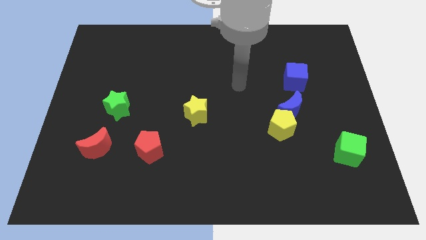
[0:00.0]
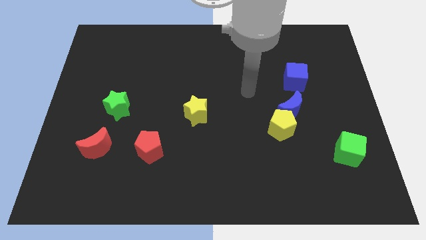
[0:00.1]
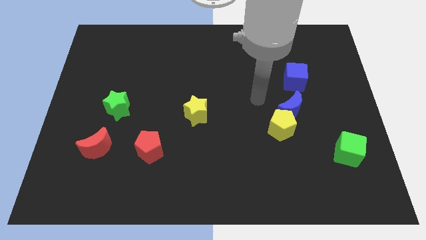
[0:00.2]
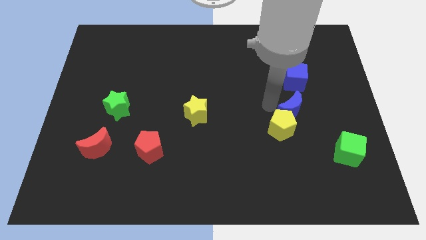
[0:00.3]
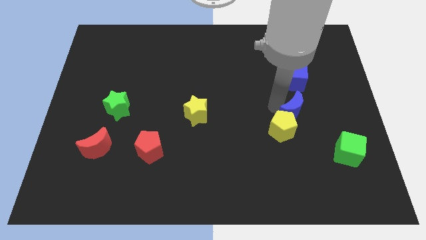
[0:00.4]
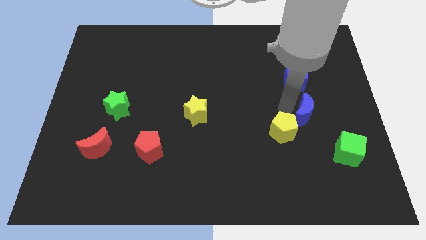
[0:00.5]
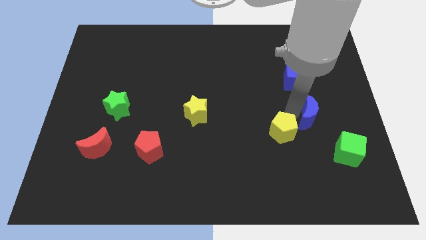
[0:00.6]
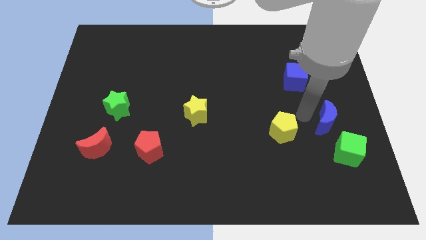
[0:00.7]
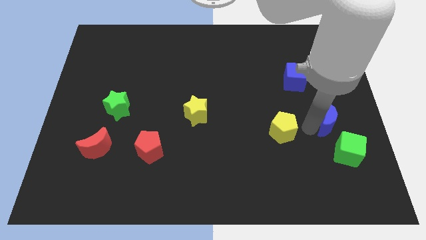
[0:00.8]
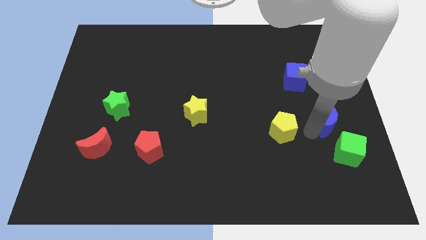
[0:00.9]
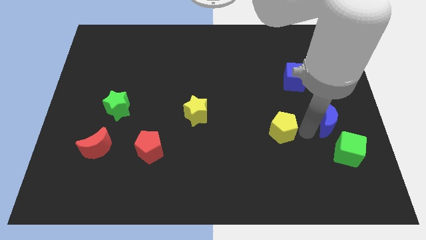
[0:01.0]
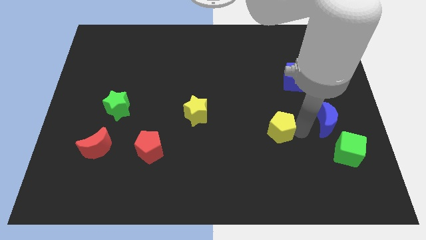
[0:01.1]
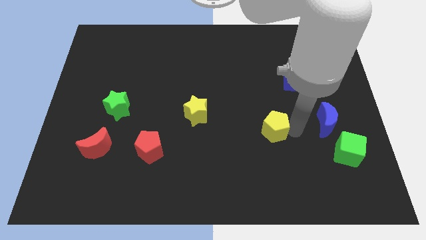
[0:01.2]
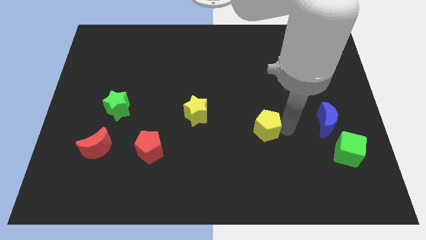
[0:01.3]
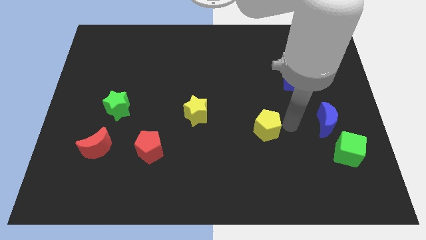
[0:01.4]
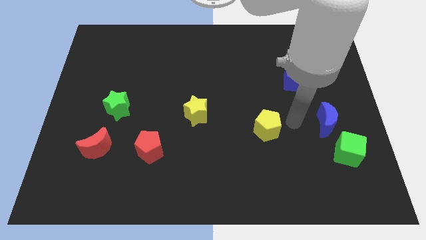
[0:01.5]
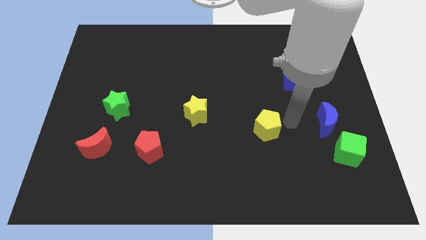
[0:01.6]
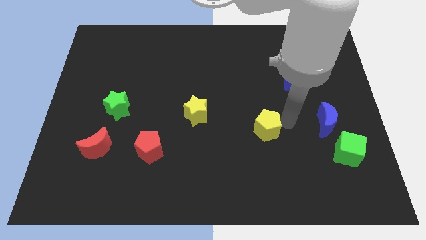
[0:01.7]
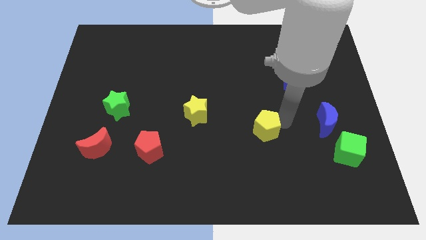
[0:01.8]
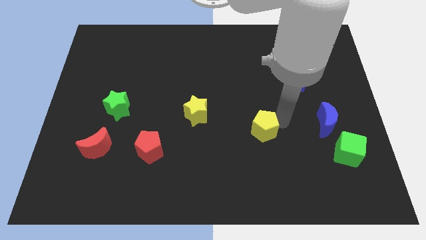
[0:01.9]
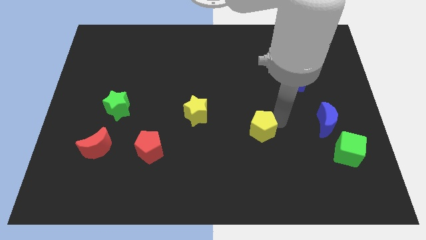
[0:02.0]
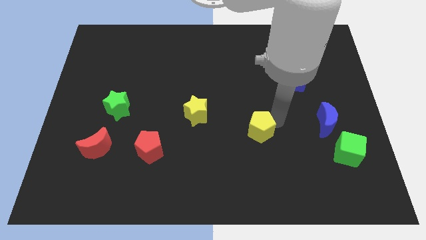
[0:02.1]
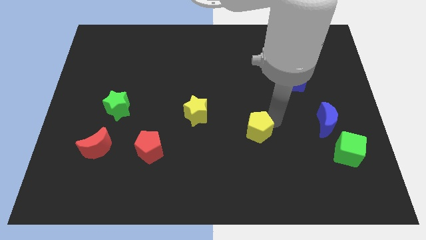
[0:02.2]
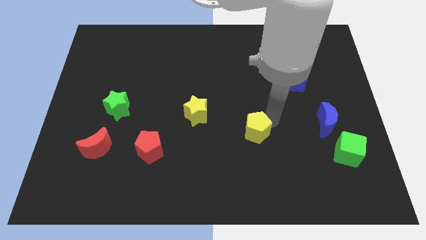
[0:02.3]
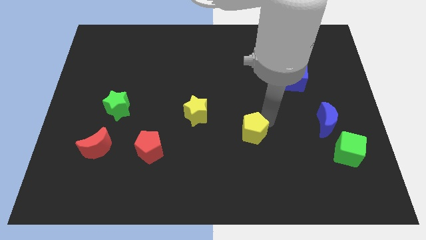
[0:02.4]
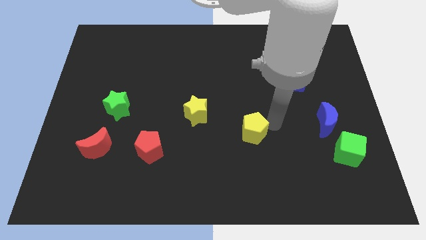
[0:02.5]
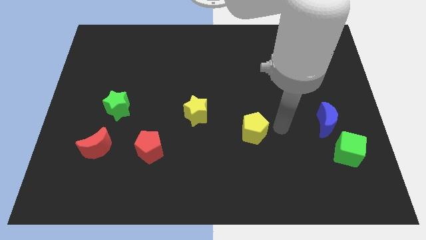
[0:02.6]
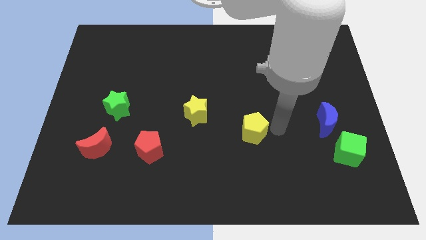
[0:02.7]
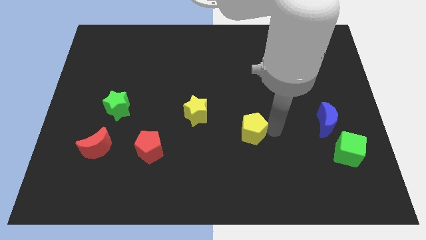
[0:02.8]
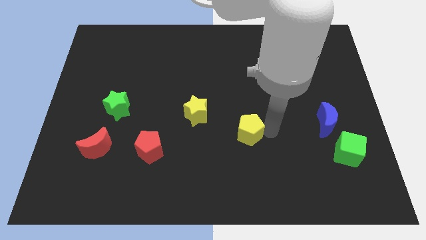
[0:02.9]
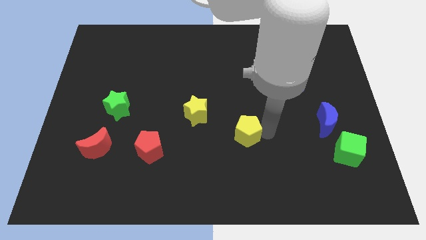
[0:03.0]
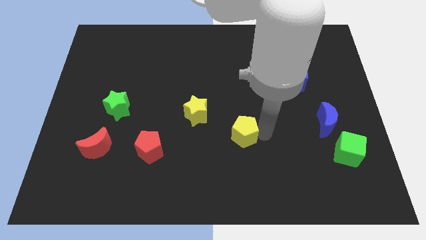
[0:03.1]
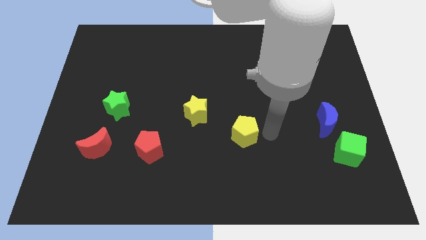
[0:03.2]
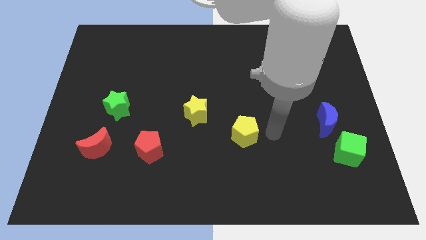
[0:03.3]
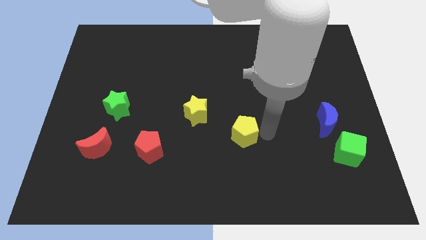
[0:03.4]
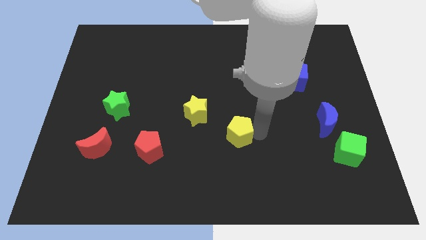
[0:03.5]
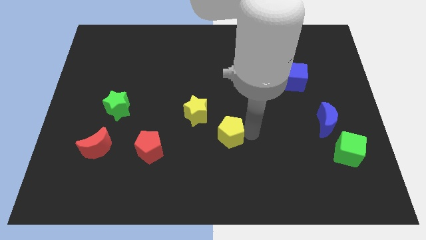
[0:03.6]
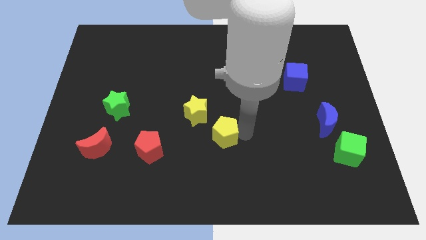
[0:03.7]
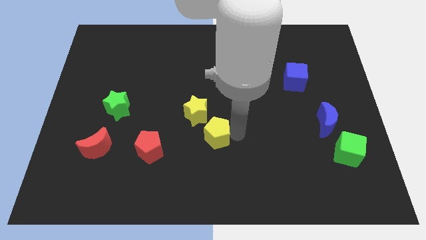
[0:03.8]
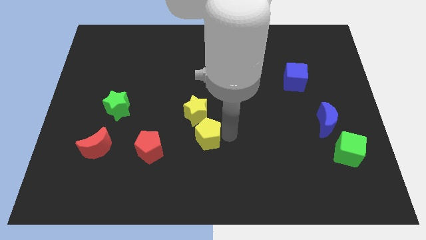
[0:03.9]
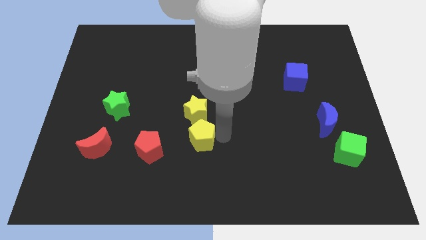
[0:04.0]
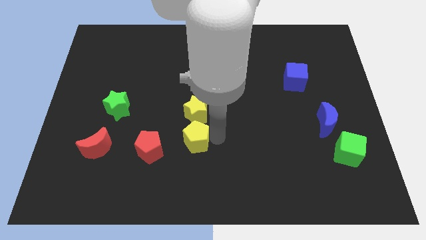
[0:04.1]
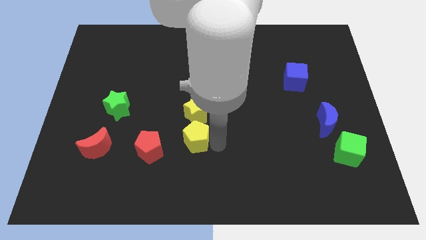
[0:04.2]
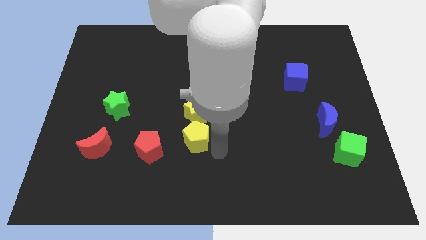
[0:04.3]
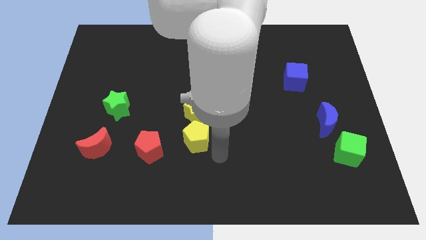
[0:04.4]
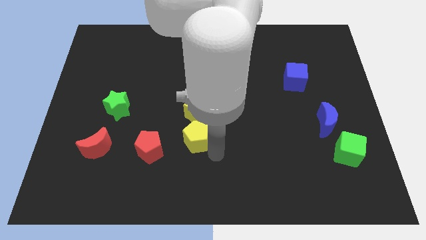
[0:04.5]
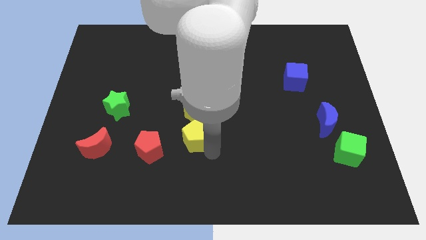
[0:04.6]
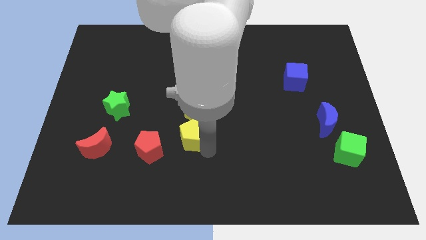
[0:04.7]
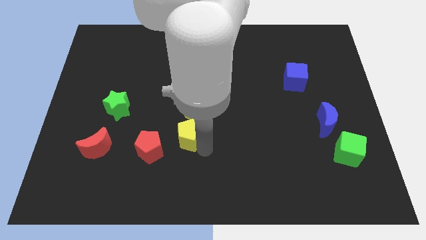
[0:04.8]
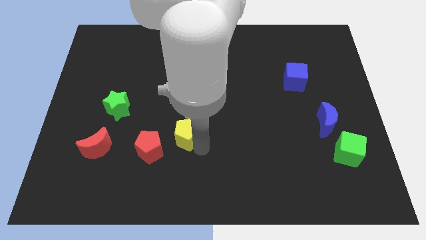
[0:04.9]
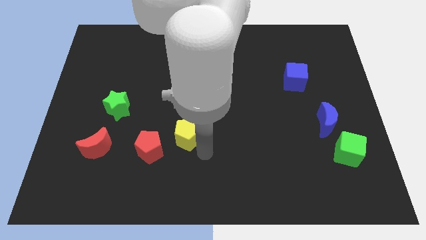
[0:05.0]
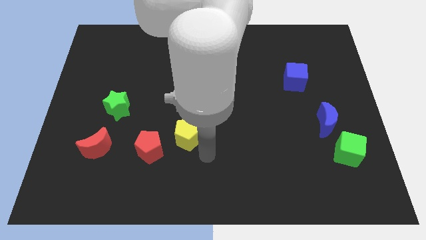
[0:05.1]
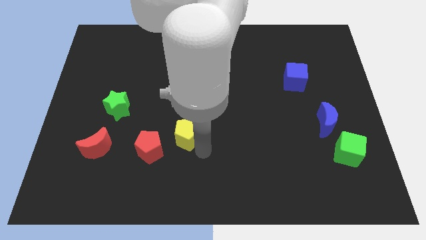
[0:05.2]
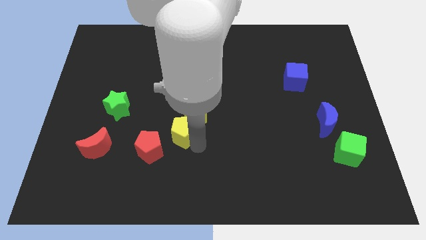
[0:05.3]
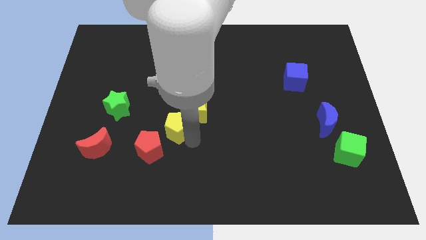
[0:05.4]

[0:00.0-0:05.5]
slide the yellow pentagon to the left of the yellow star

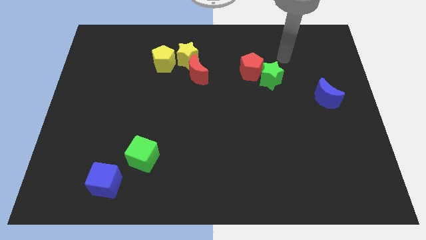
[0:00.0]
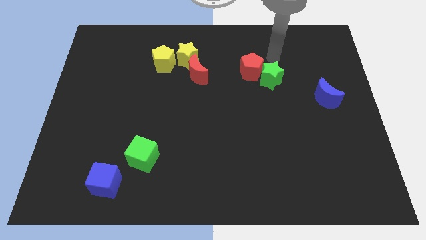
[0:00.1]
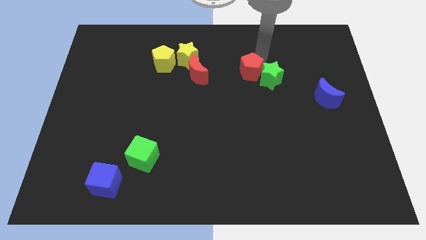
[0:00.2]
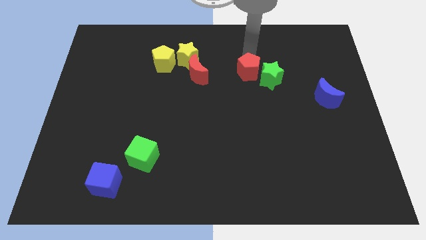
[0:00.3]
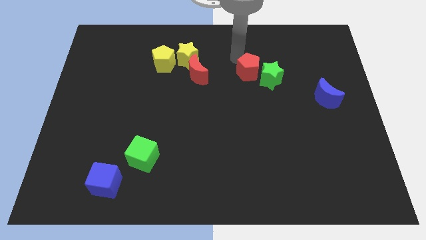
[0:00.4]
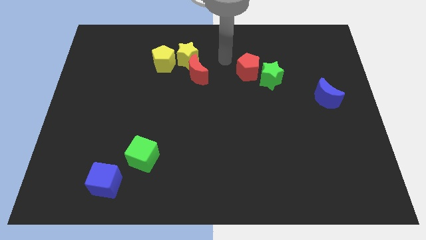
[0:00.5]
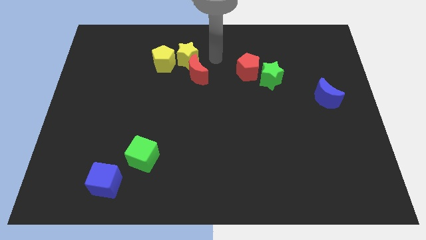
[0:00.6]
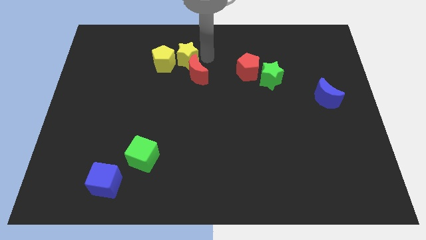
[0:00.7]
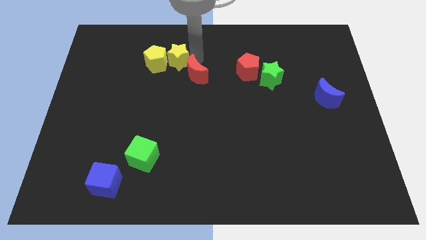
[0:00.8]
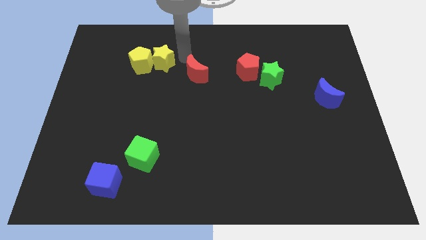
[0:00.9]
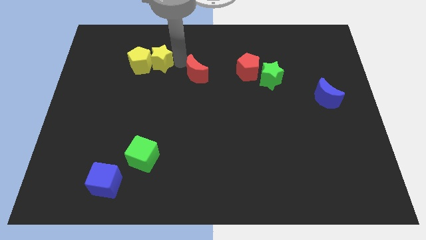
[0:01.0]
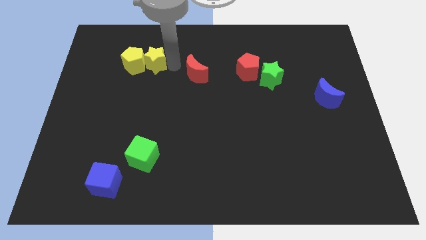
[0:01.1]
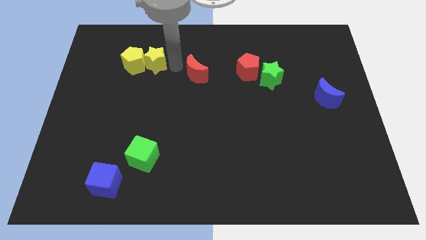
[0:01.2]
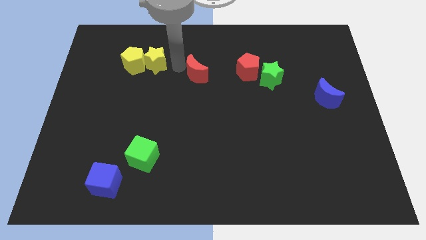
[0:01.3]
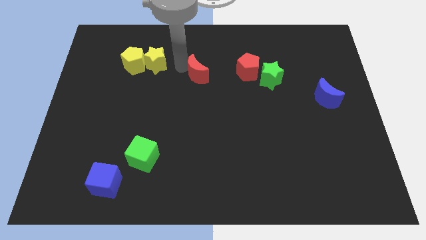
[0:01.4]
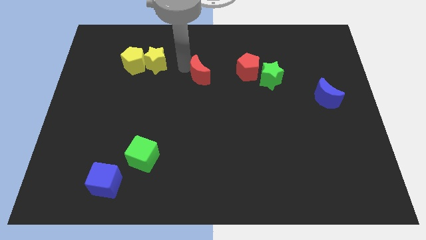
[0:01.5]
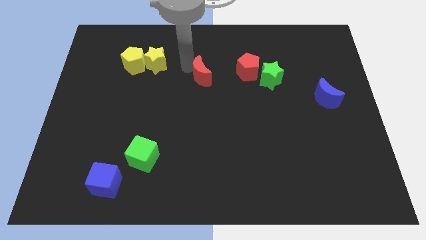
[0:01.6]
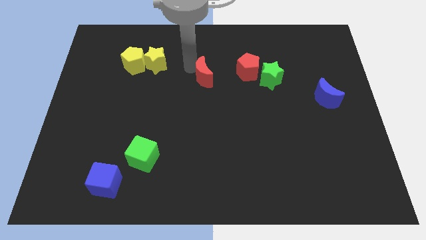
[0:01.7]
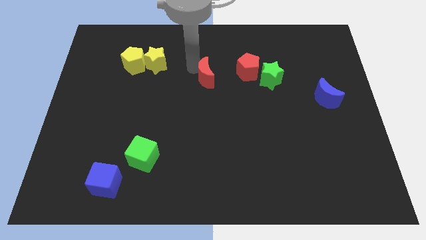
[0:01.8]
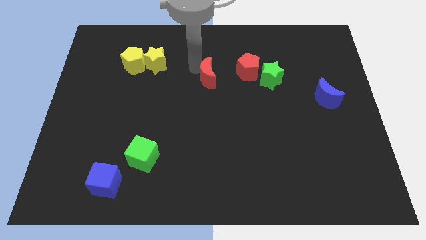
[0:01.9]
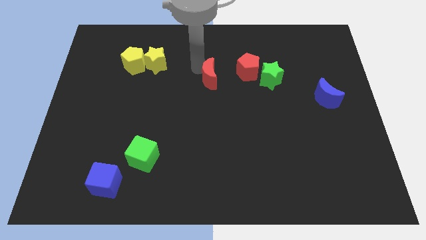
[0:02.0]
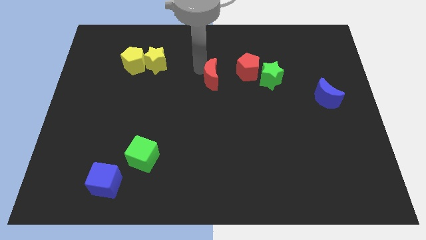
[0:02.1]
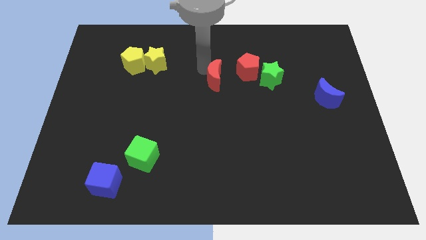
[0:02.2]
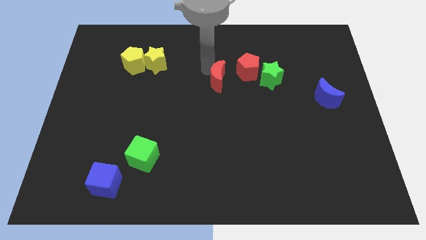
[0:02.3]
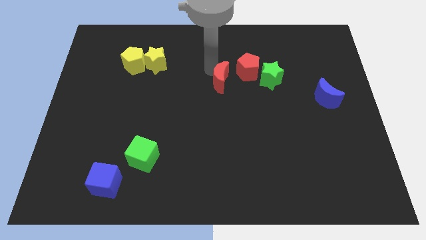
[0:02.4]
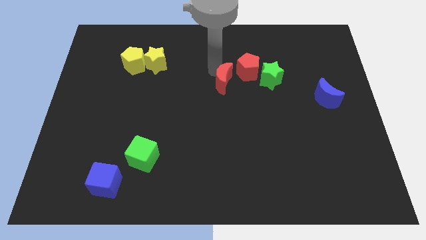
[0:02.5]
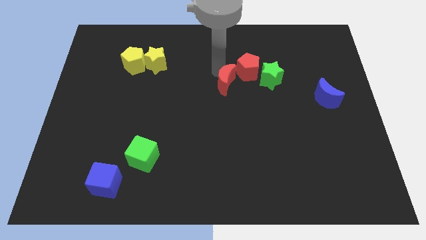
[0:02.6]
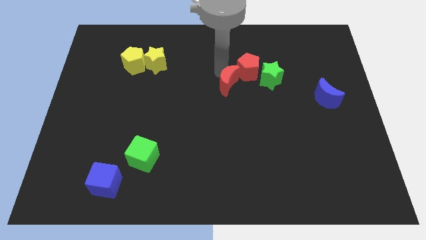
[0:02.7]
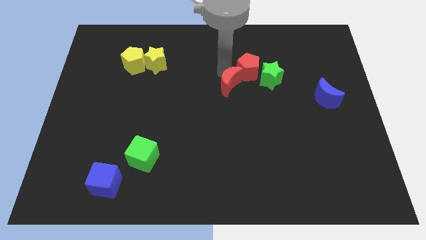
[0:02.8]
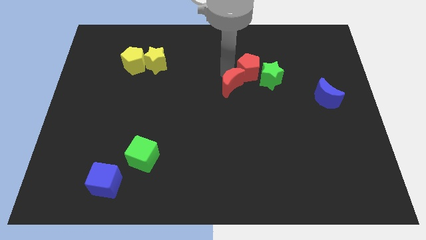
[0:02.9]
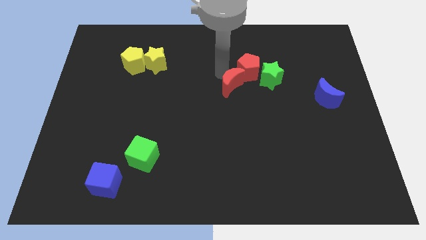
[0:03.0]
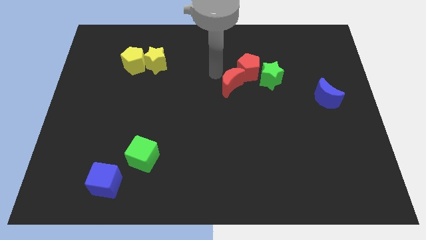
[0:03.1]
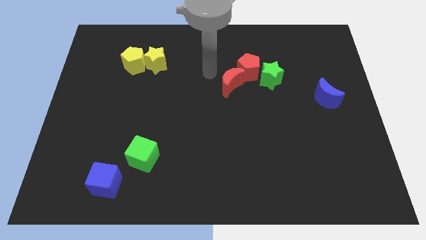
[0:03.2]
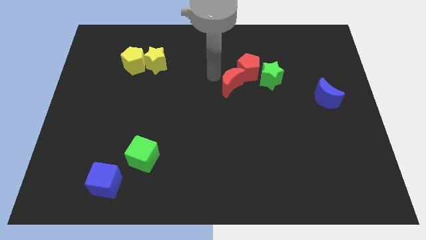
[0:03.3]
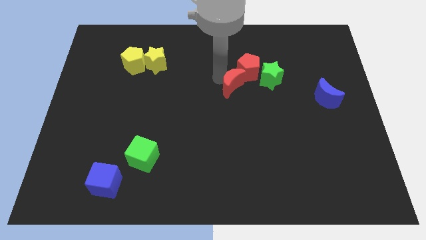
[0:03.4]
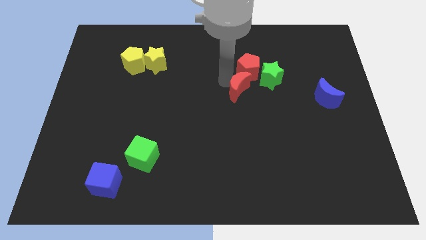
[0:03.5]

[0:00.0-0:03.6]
put the red moon diagonally down and to the left of the green star
